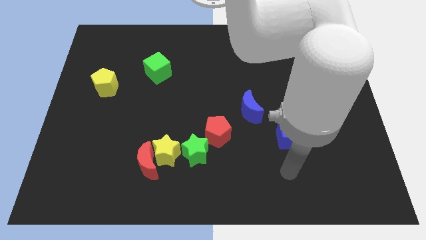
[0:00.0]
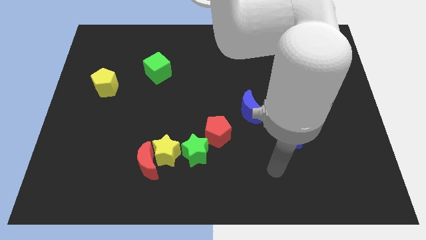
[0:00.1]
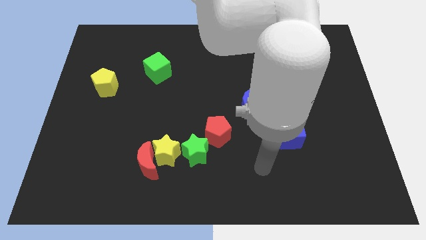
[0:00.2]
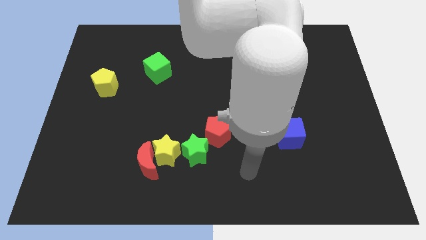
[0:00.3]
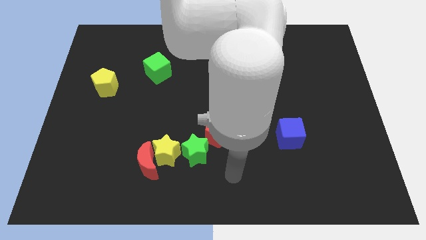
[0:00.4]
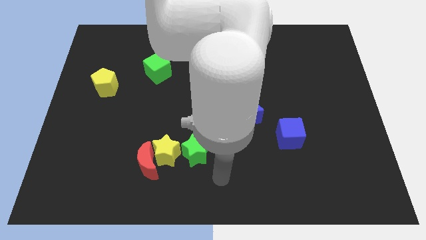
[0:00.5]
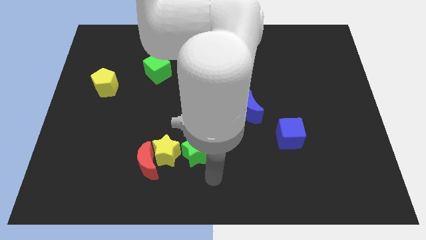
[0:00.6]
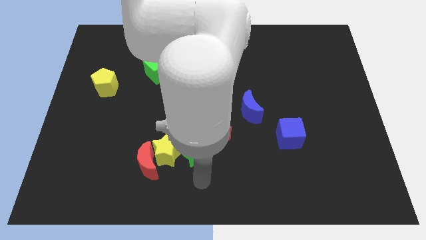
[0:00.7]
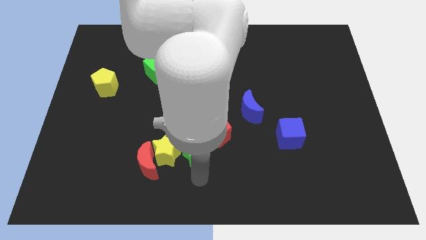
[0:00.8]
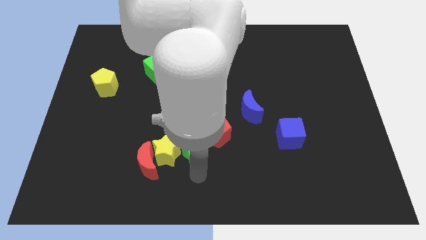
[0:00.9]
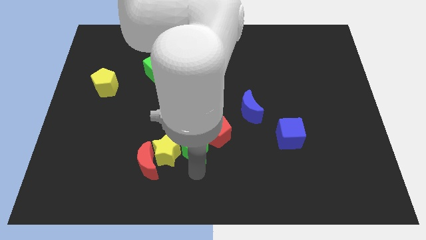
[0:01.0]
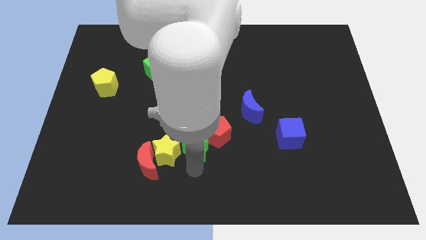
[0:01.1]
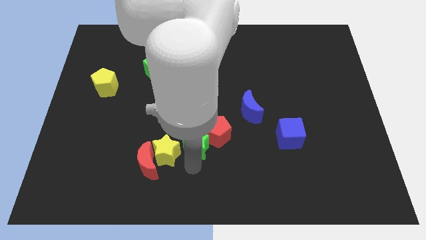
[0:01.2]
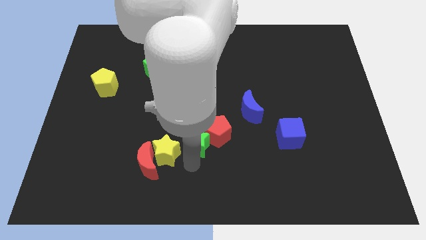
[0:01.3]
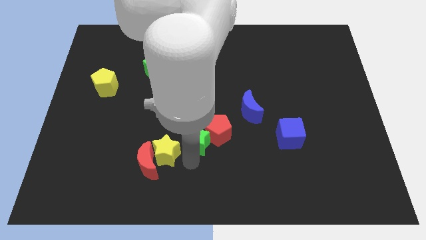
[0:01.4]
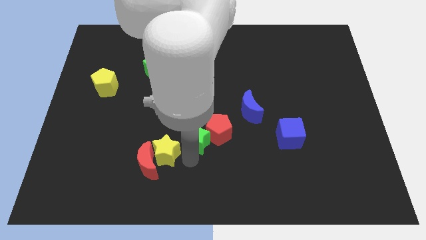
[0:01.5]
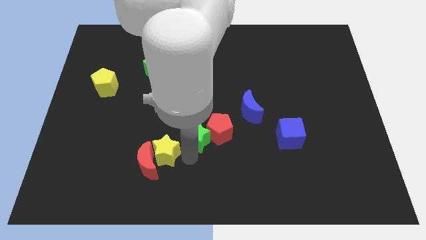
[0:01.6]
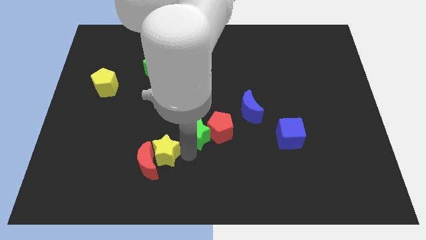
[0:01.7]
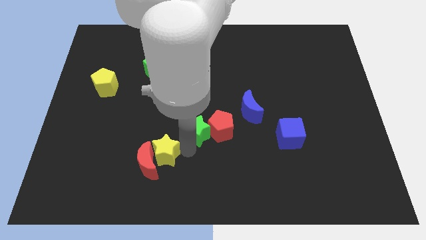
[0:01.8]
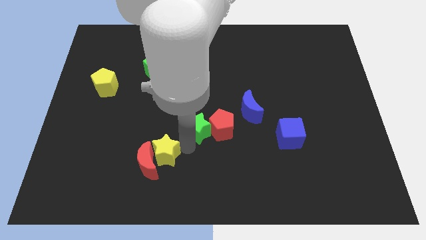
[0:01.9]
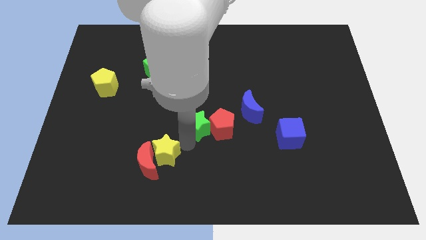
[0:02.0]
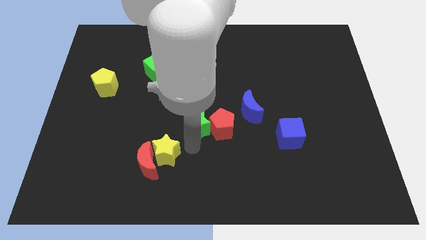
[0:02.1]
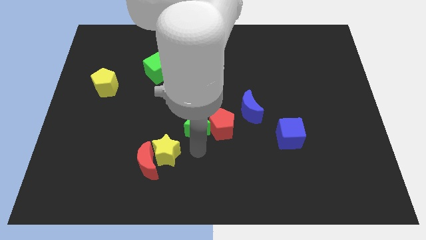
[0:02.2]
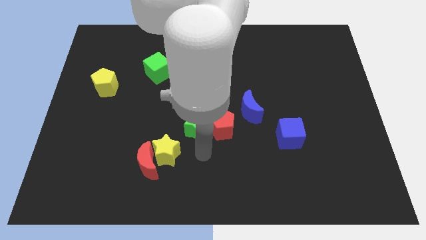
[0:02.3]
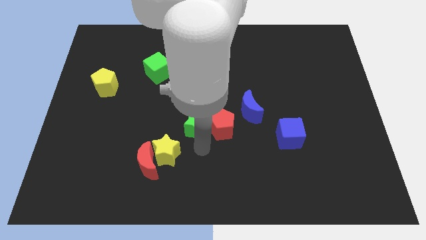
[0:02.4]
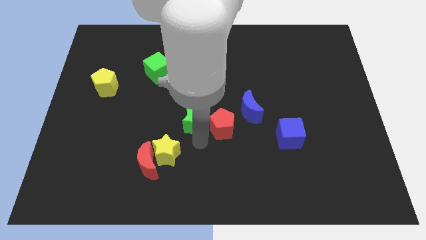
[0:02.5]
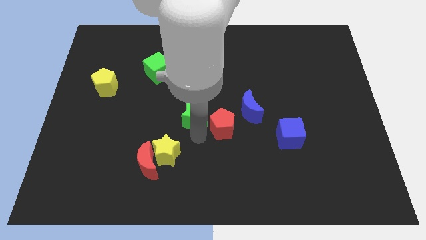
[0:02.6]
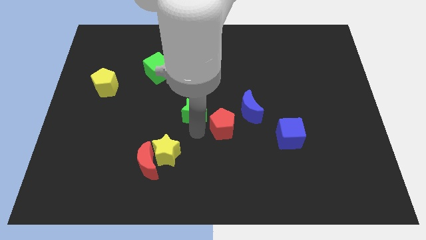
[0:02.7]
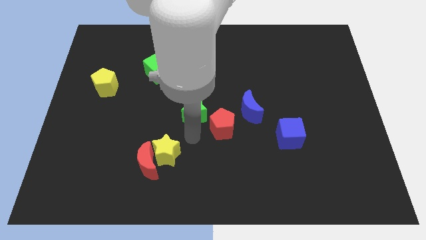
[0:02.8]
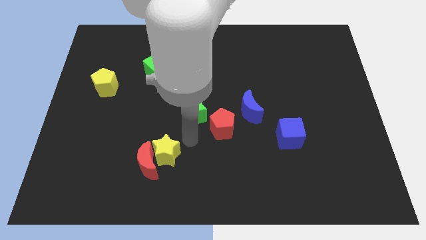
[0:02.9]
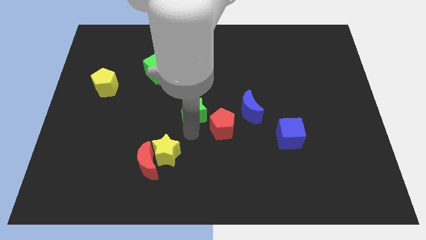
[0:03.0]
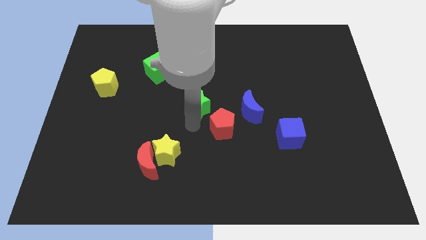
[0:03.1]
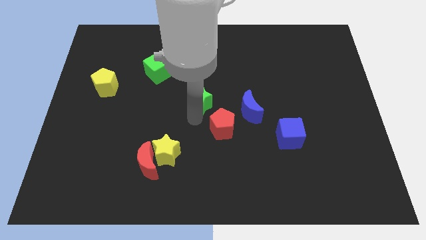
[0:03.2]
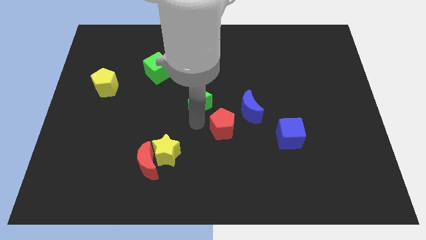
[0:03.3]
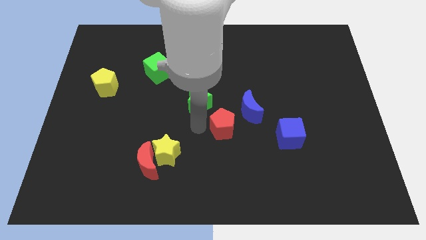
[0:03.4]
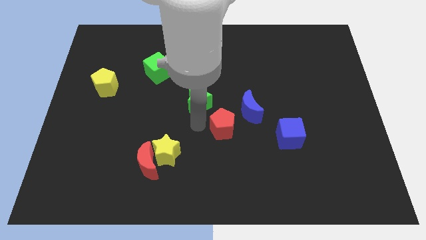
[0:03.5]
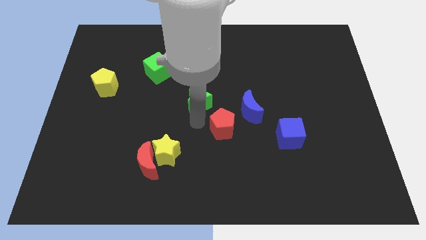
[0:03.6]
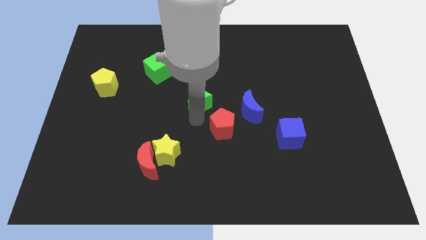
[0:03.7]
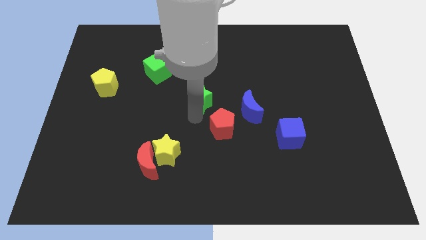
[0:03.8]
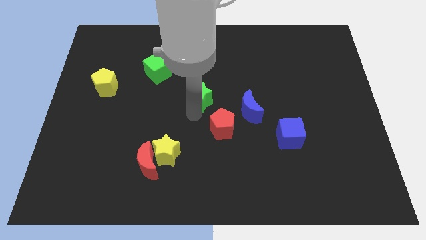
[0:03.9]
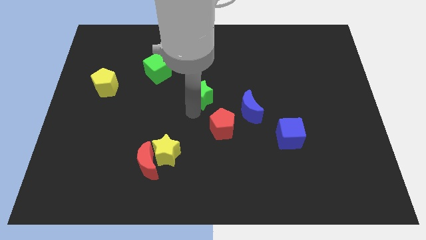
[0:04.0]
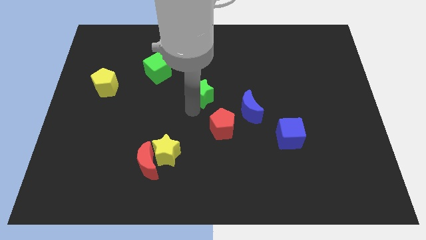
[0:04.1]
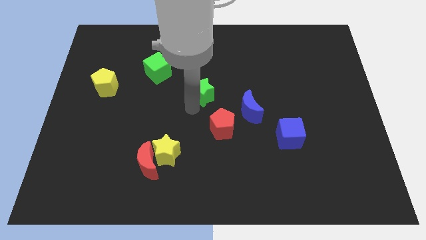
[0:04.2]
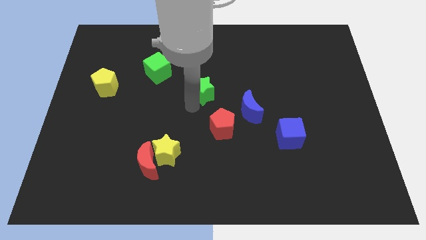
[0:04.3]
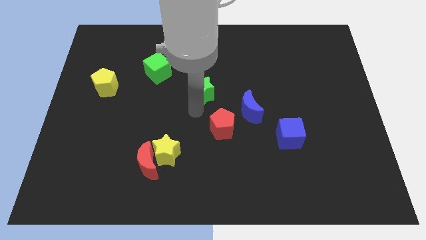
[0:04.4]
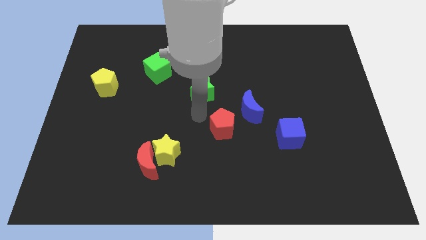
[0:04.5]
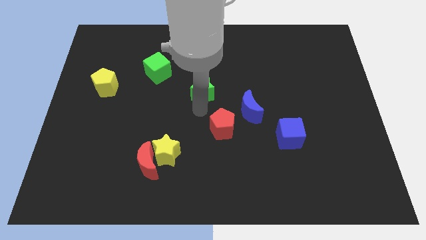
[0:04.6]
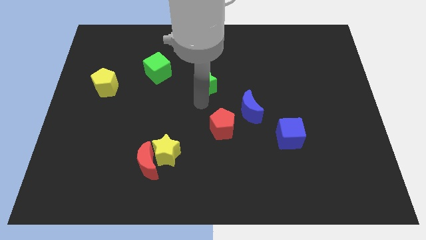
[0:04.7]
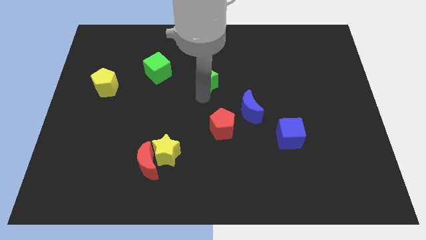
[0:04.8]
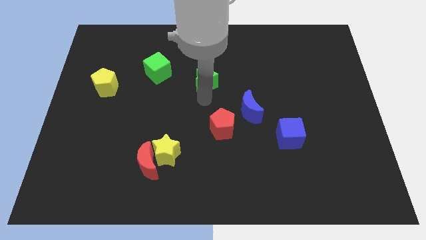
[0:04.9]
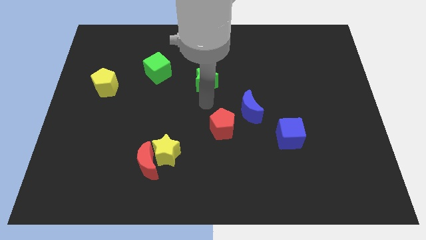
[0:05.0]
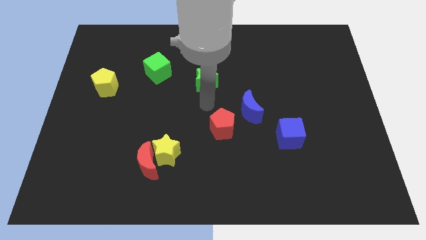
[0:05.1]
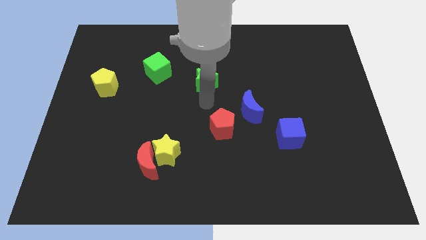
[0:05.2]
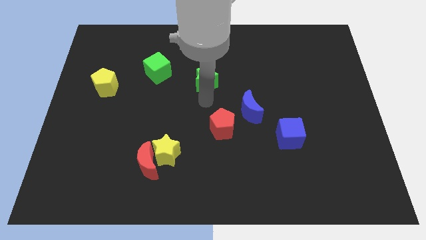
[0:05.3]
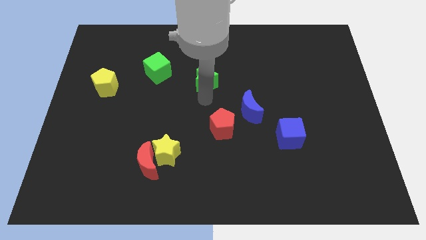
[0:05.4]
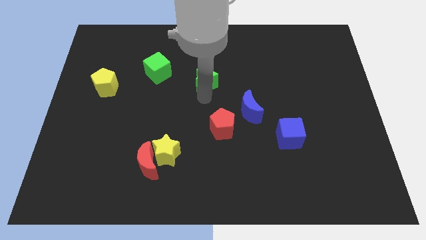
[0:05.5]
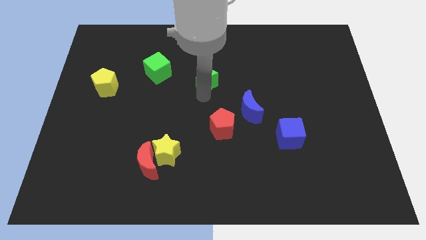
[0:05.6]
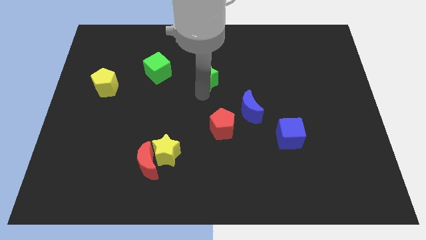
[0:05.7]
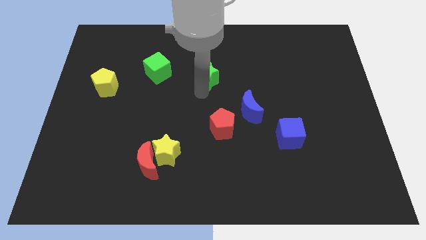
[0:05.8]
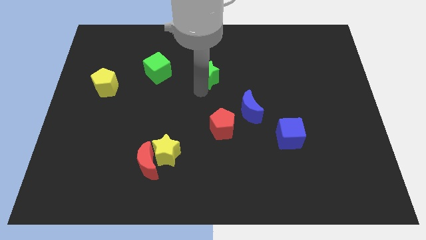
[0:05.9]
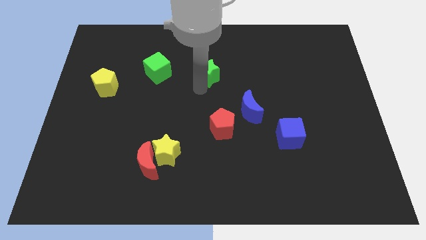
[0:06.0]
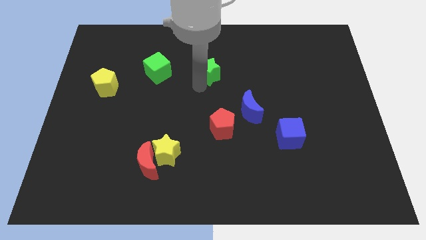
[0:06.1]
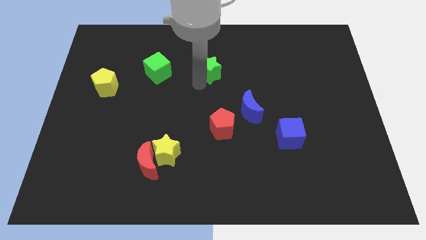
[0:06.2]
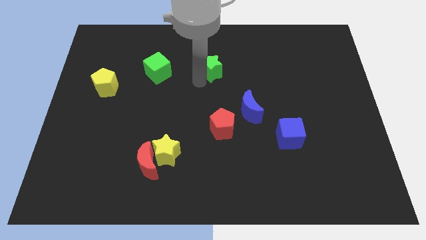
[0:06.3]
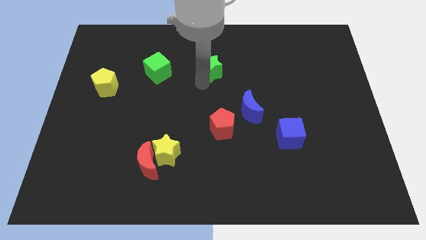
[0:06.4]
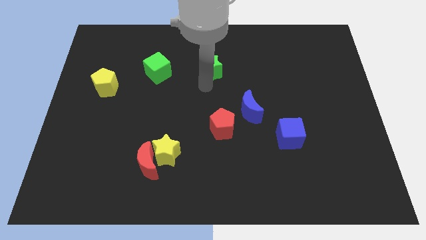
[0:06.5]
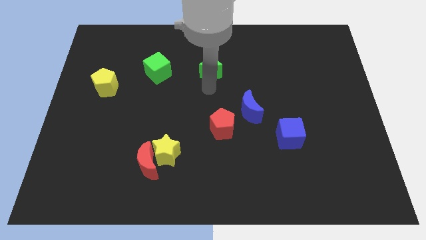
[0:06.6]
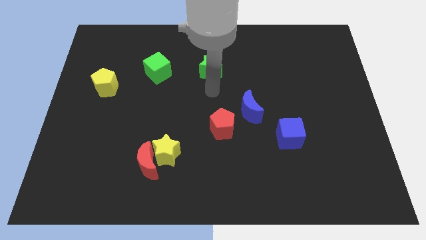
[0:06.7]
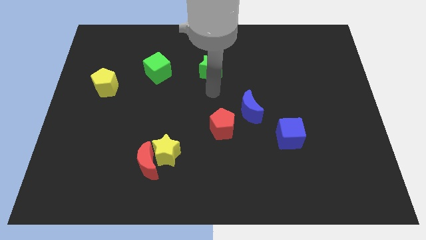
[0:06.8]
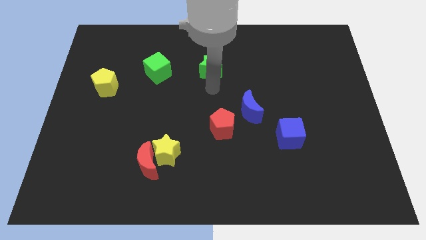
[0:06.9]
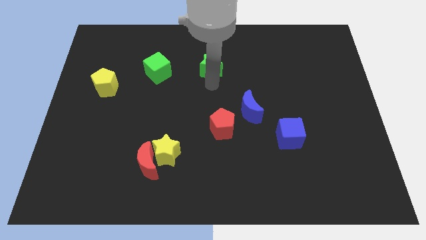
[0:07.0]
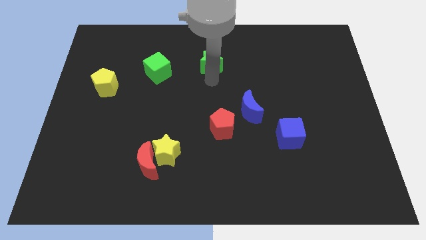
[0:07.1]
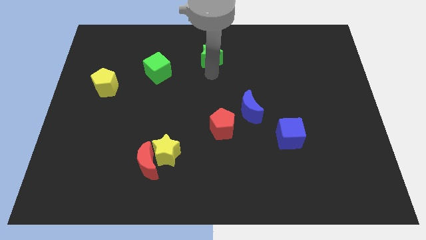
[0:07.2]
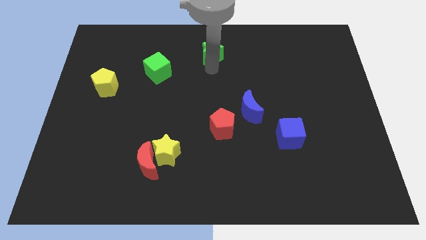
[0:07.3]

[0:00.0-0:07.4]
slide the green star to the towards your base
